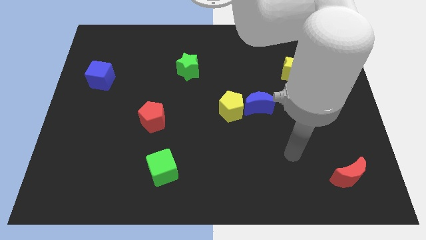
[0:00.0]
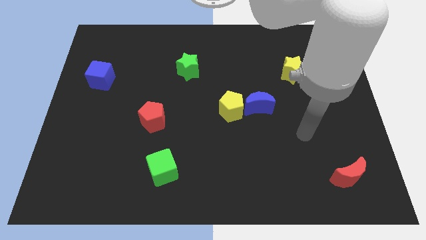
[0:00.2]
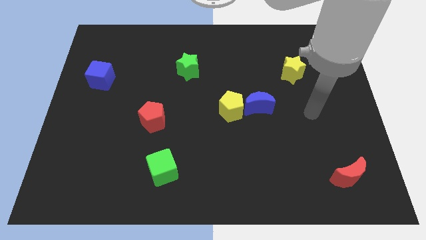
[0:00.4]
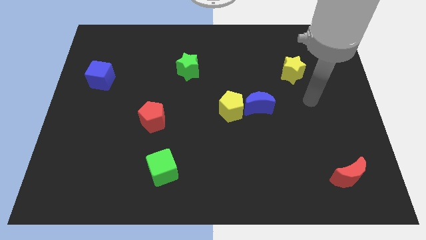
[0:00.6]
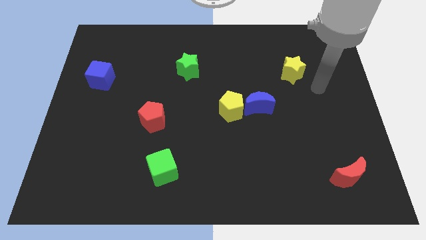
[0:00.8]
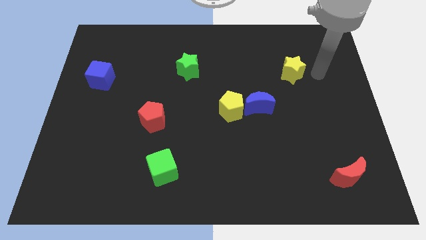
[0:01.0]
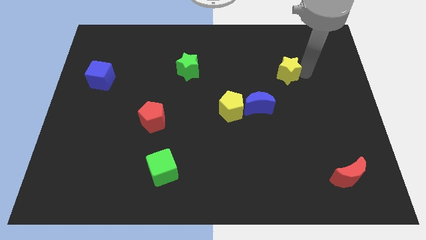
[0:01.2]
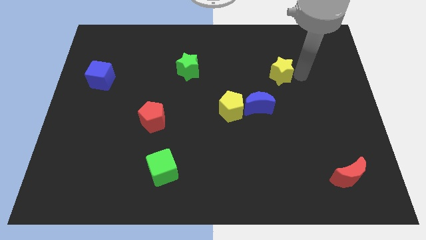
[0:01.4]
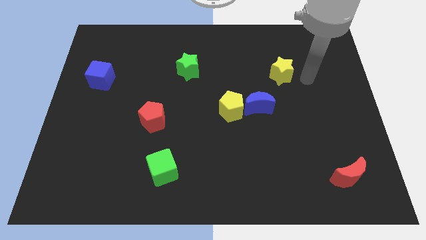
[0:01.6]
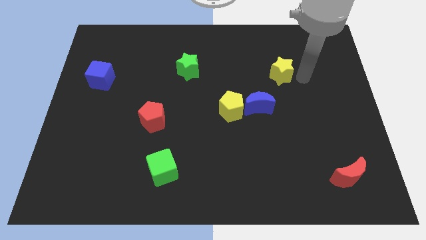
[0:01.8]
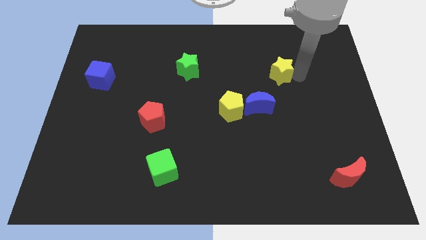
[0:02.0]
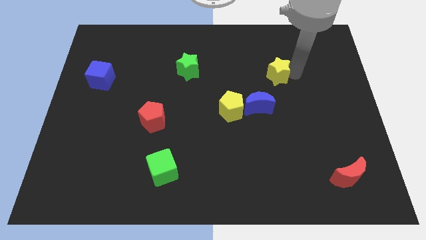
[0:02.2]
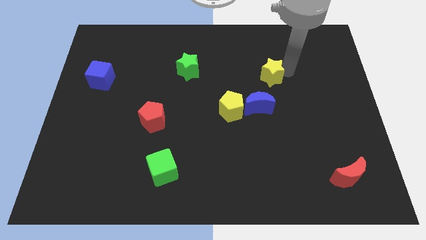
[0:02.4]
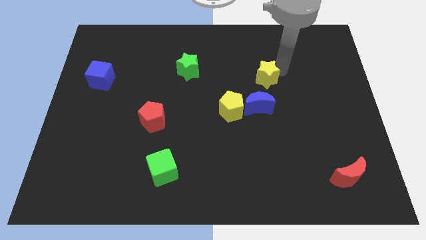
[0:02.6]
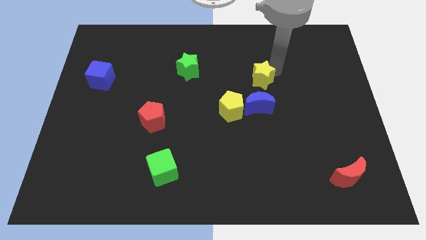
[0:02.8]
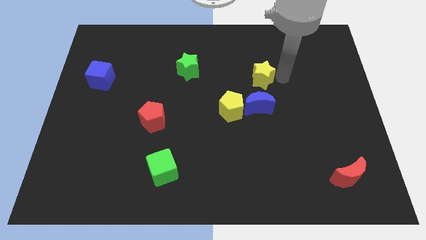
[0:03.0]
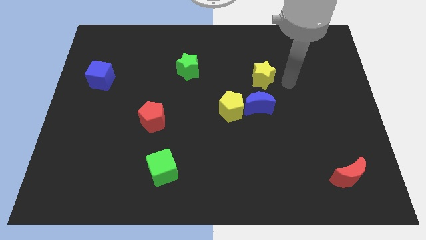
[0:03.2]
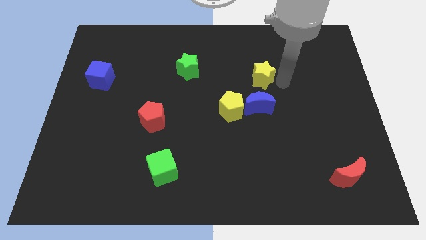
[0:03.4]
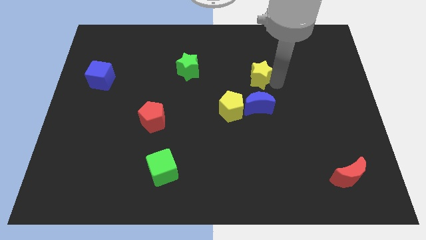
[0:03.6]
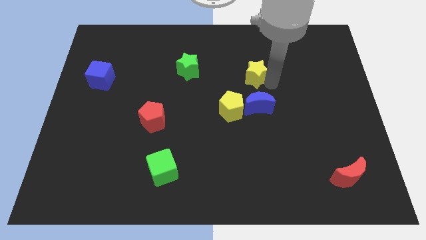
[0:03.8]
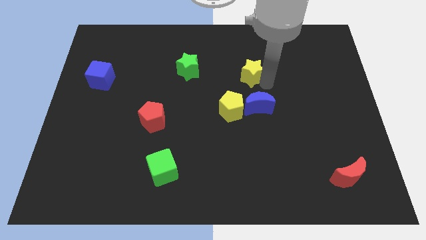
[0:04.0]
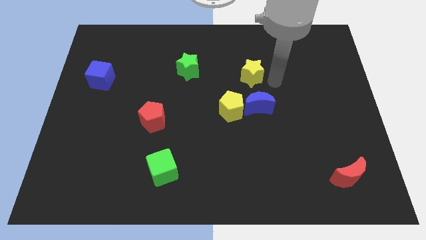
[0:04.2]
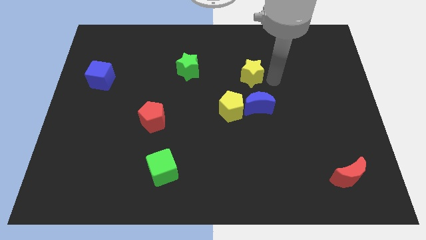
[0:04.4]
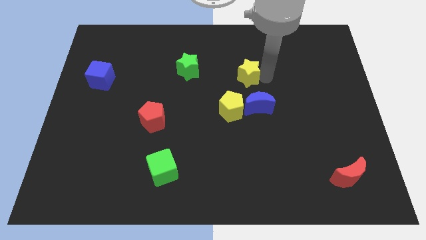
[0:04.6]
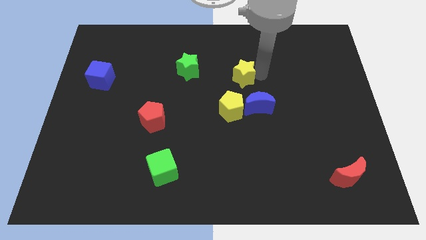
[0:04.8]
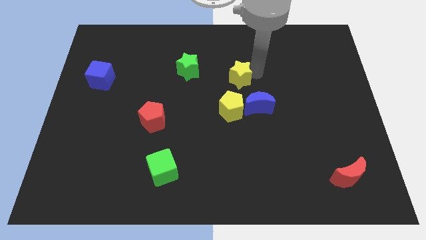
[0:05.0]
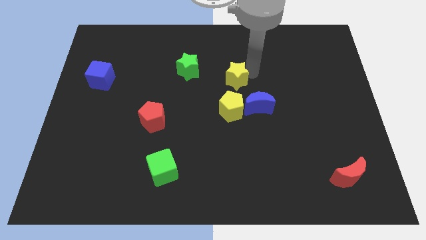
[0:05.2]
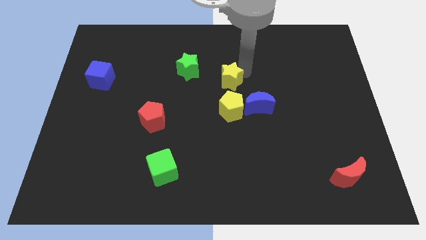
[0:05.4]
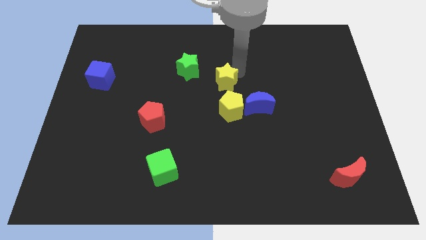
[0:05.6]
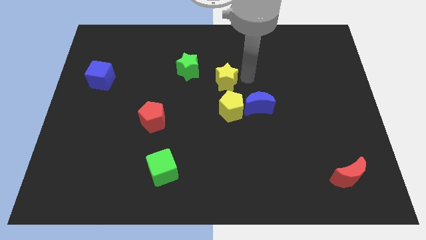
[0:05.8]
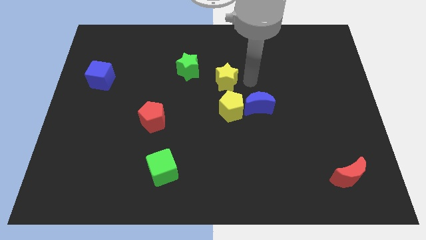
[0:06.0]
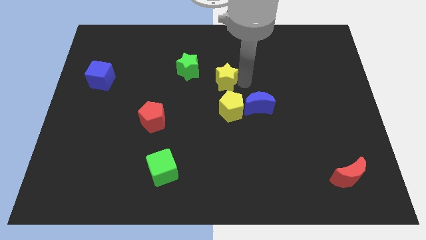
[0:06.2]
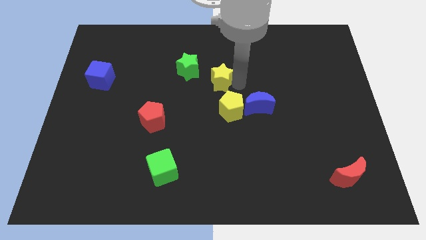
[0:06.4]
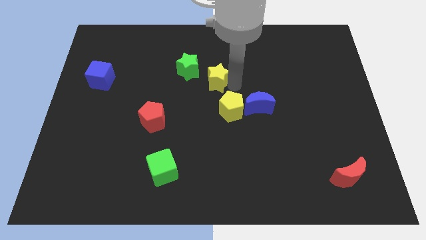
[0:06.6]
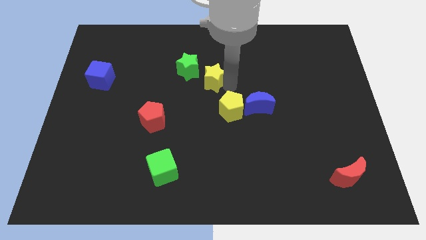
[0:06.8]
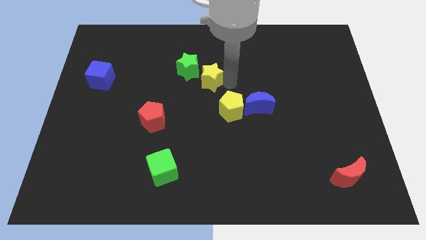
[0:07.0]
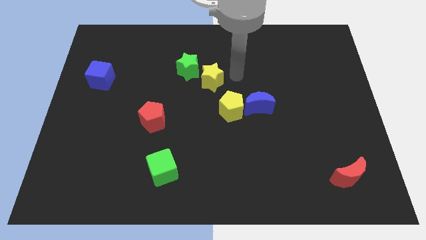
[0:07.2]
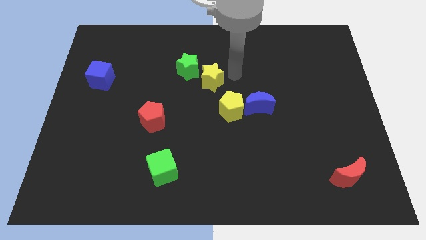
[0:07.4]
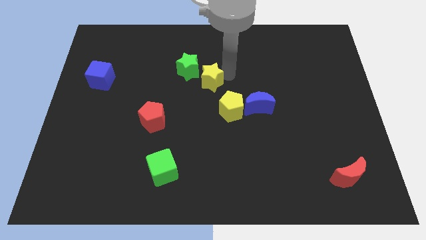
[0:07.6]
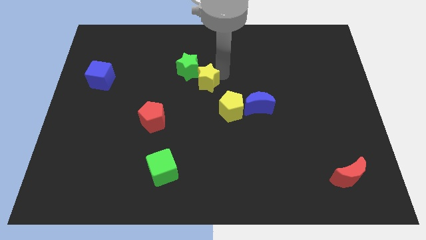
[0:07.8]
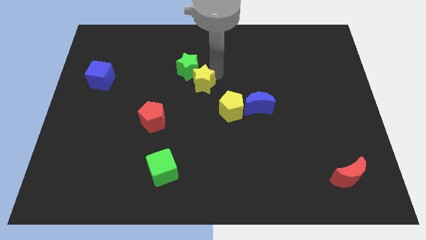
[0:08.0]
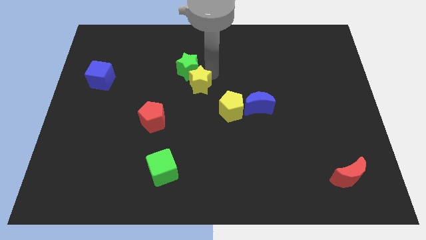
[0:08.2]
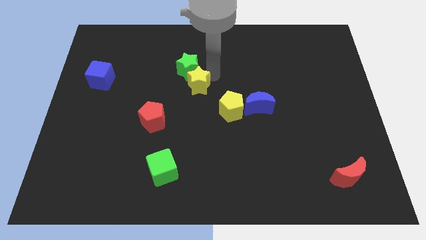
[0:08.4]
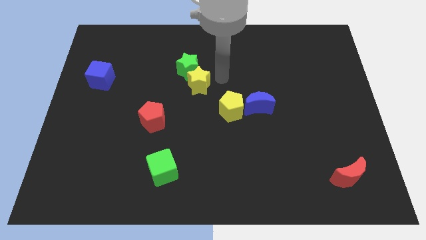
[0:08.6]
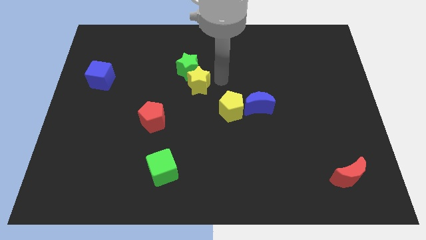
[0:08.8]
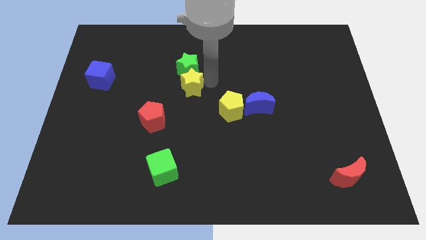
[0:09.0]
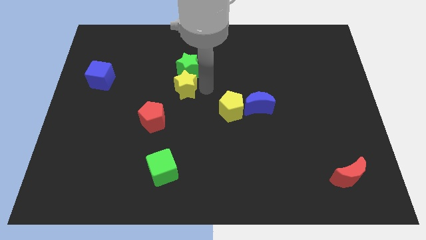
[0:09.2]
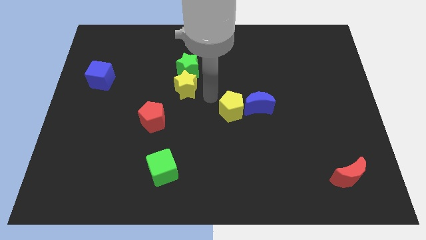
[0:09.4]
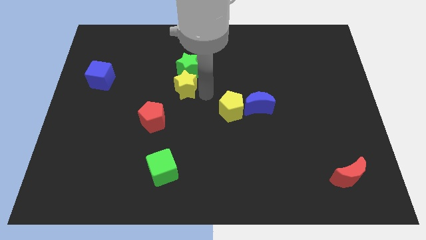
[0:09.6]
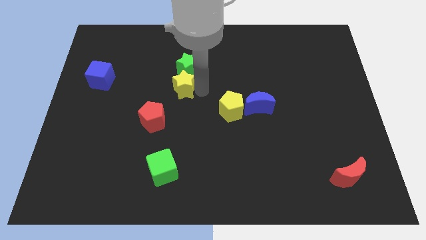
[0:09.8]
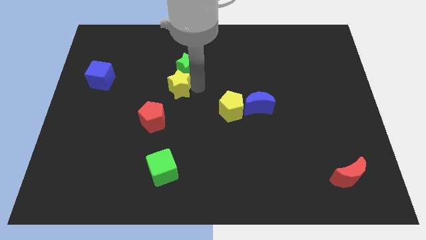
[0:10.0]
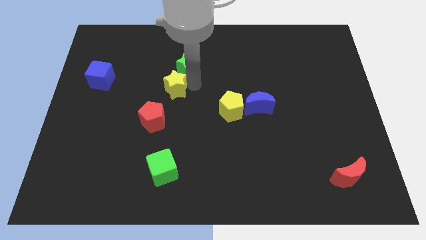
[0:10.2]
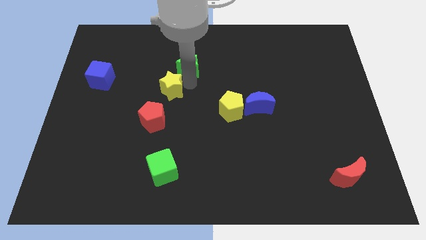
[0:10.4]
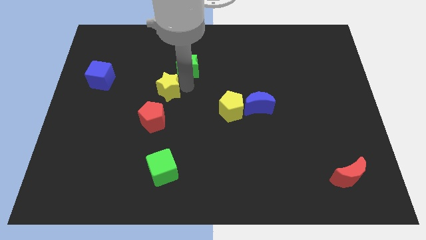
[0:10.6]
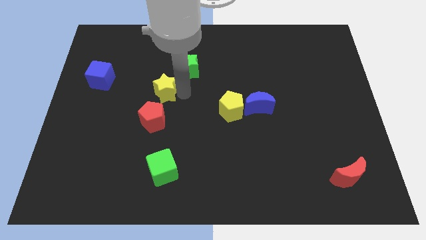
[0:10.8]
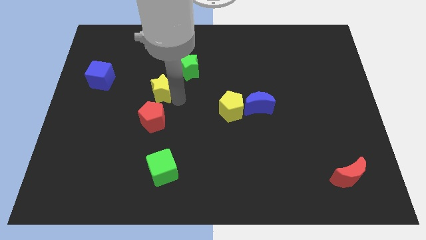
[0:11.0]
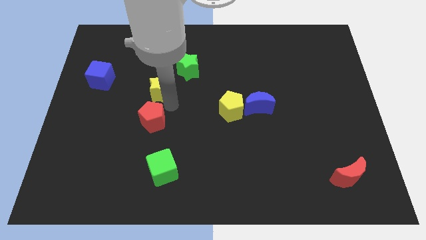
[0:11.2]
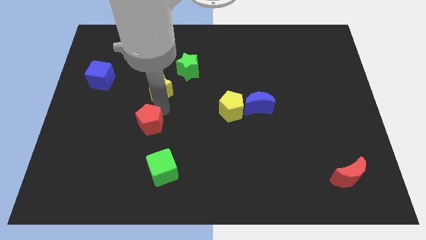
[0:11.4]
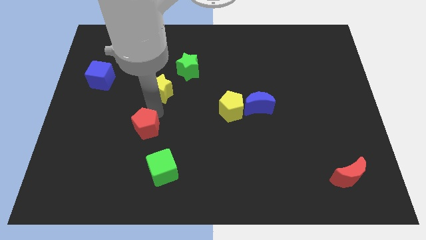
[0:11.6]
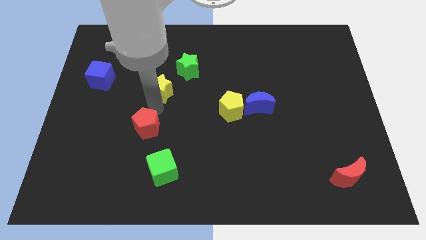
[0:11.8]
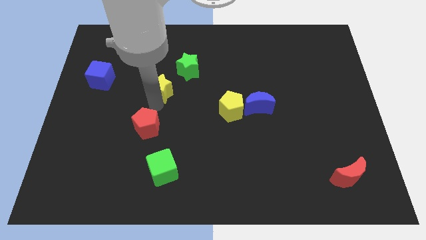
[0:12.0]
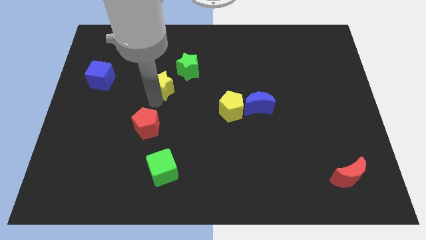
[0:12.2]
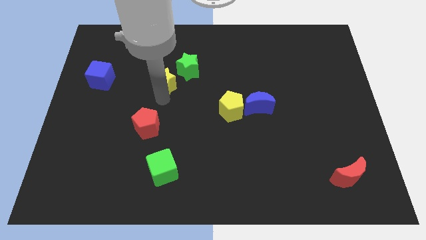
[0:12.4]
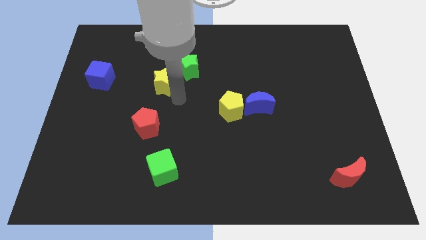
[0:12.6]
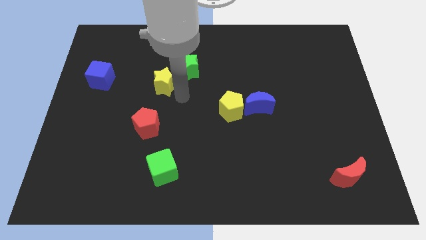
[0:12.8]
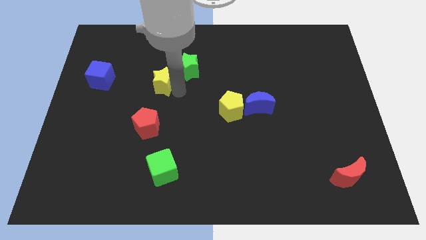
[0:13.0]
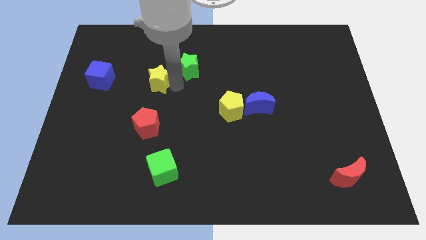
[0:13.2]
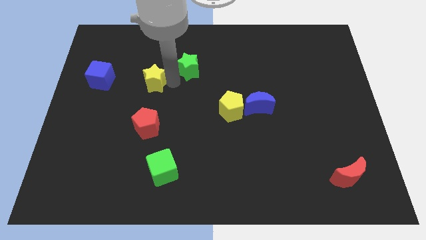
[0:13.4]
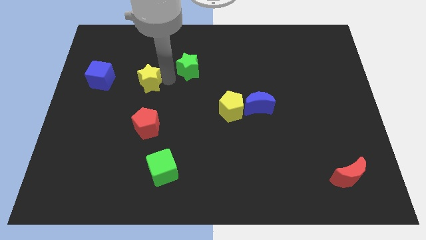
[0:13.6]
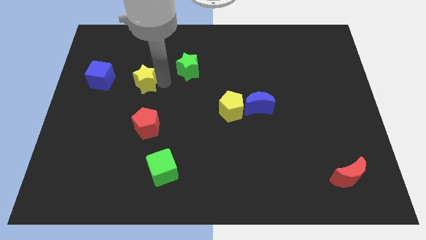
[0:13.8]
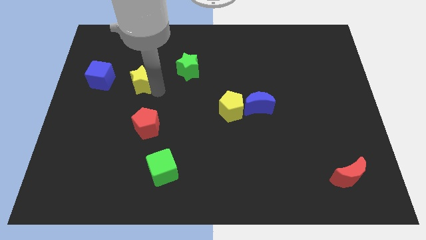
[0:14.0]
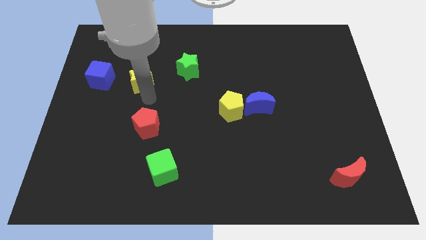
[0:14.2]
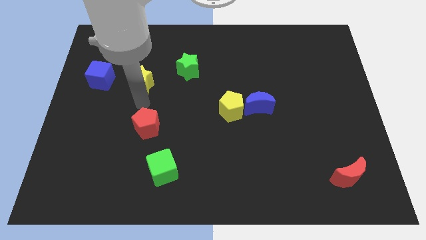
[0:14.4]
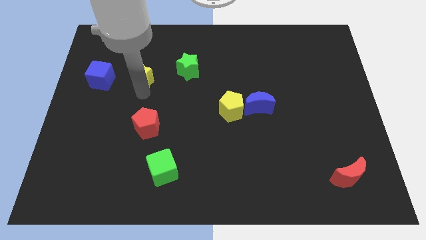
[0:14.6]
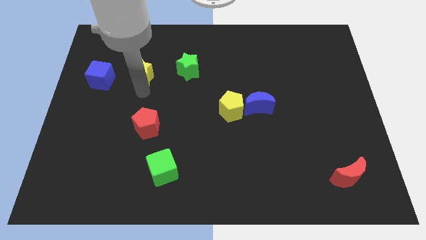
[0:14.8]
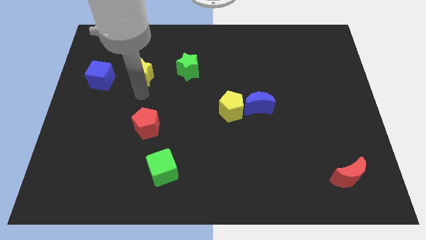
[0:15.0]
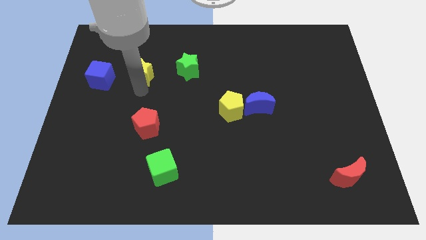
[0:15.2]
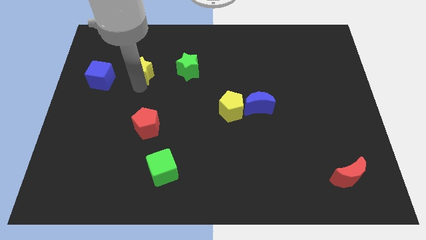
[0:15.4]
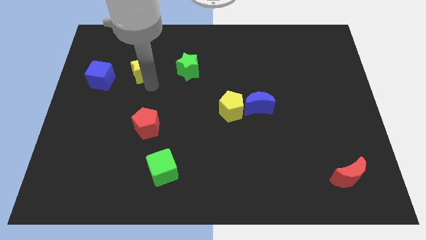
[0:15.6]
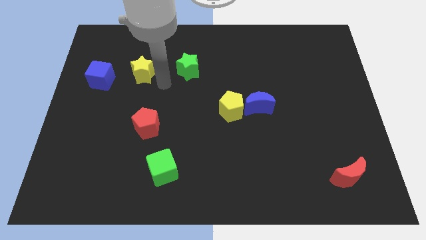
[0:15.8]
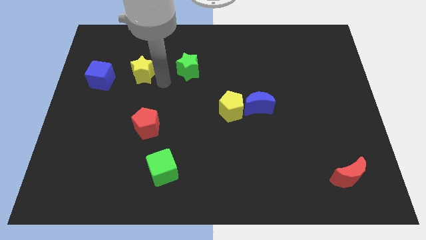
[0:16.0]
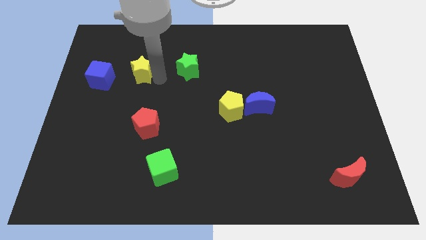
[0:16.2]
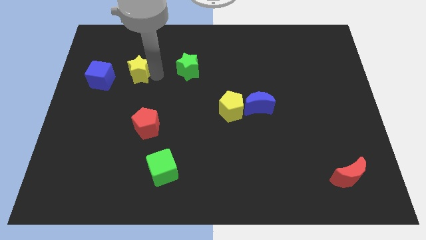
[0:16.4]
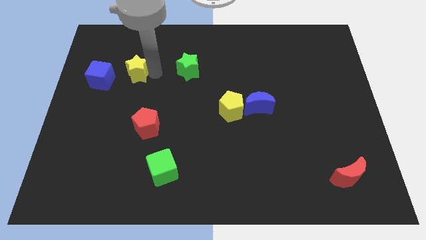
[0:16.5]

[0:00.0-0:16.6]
put the yellow star diagonally up and to the right of the blue cube
